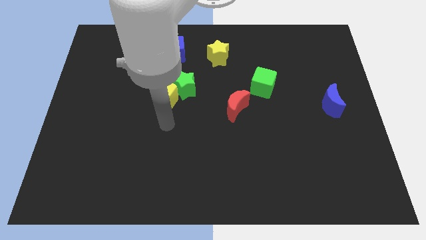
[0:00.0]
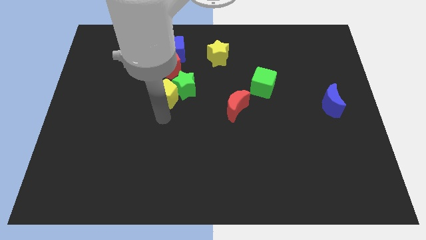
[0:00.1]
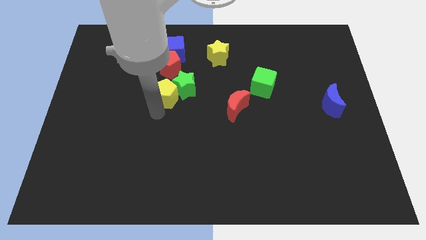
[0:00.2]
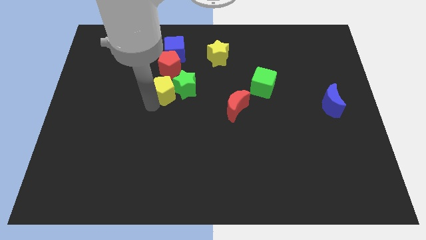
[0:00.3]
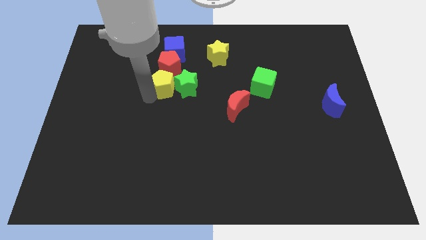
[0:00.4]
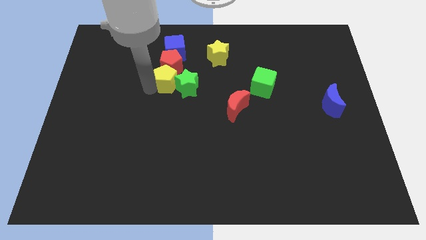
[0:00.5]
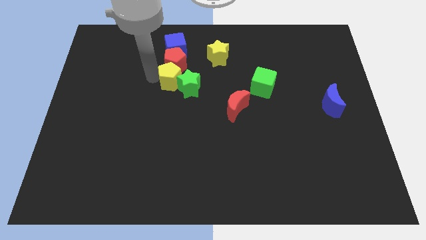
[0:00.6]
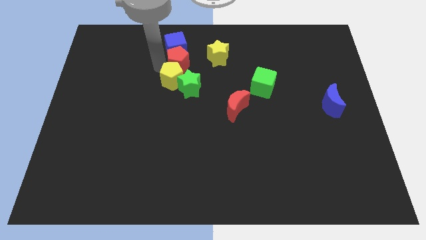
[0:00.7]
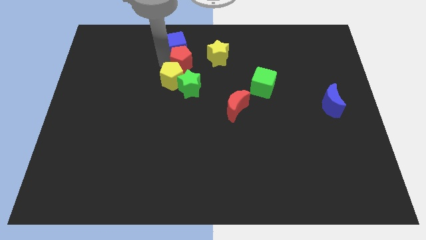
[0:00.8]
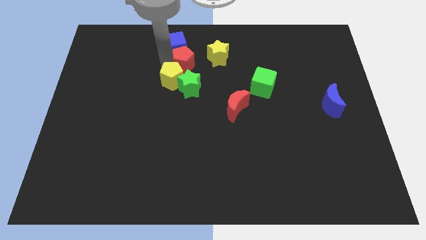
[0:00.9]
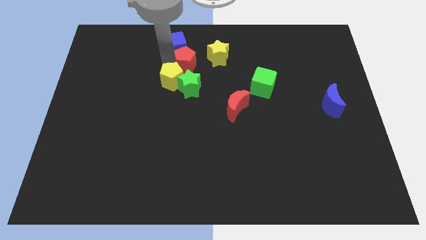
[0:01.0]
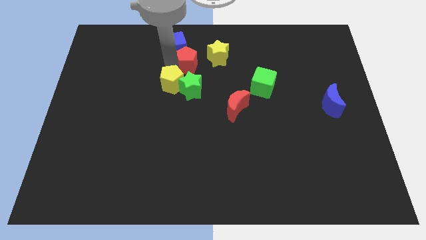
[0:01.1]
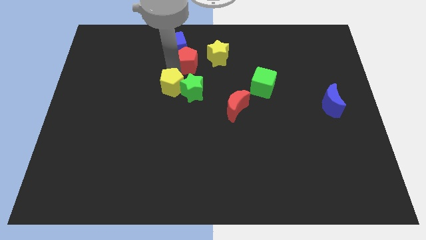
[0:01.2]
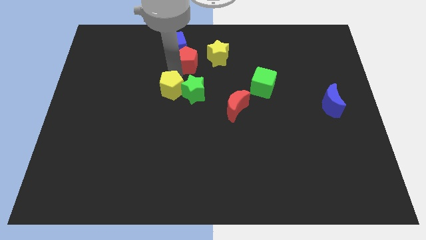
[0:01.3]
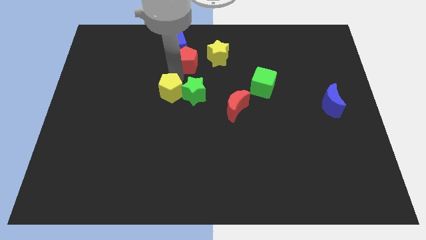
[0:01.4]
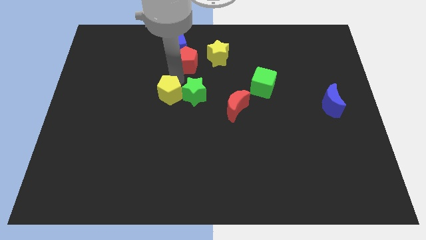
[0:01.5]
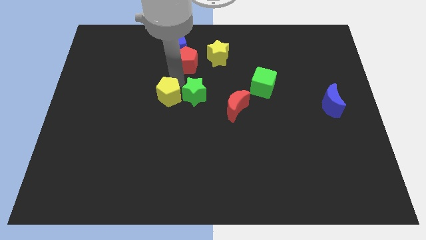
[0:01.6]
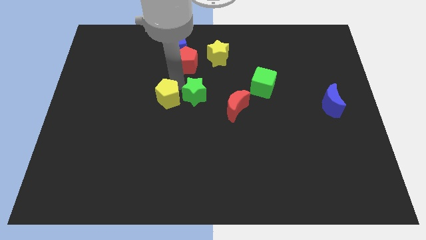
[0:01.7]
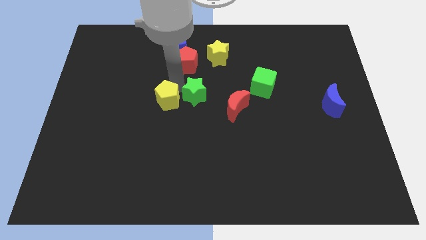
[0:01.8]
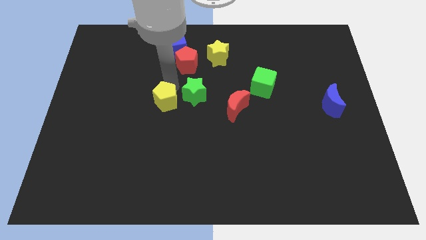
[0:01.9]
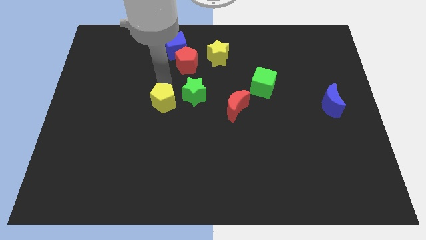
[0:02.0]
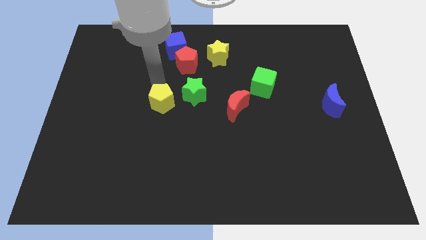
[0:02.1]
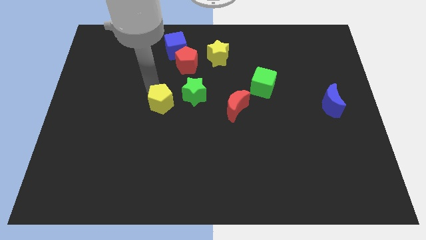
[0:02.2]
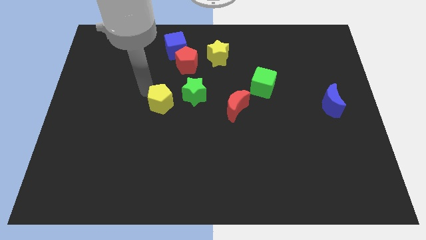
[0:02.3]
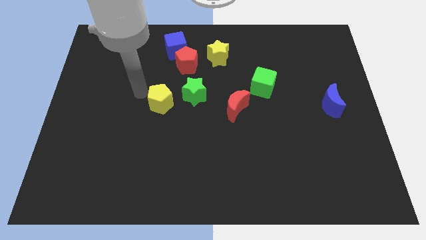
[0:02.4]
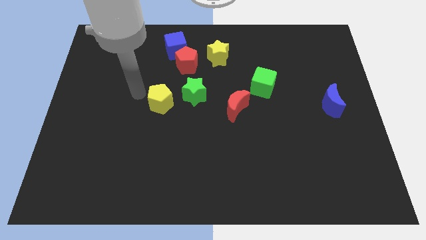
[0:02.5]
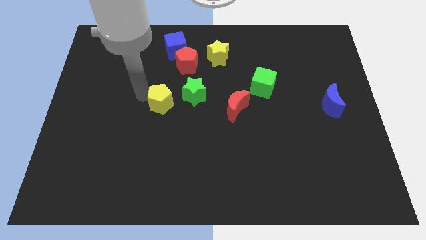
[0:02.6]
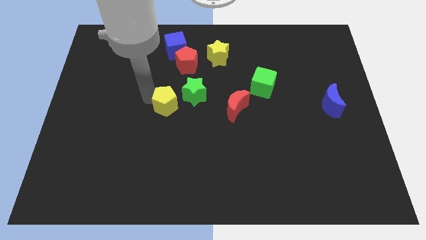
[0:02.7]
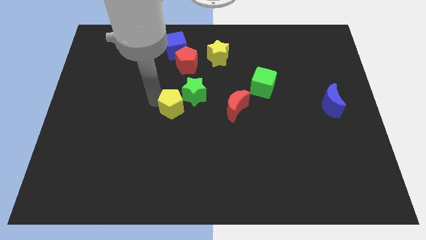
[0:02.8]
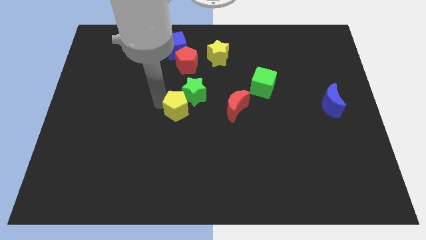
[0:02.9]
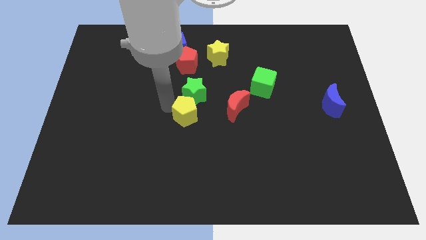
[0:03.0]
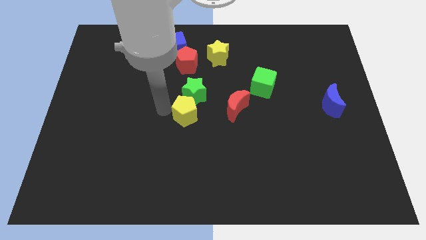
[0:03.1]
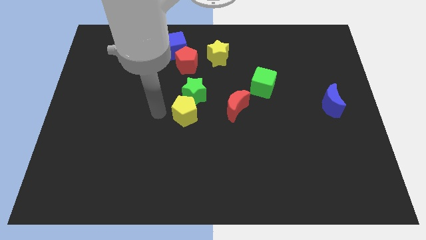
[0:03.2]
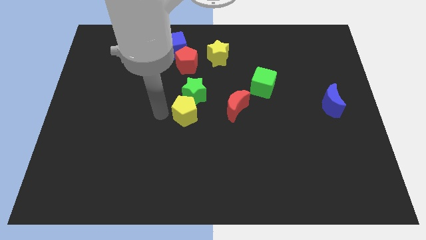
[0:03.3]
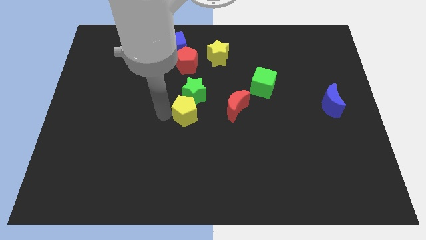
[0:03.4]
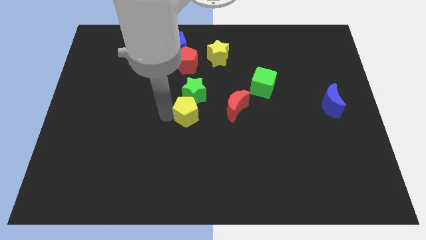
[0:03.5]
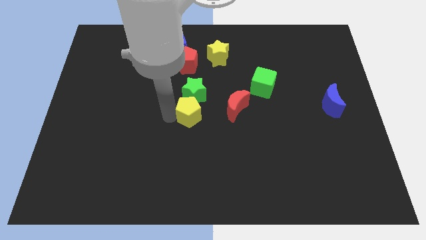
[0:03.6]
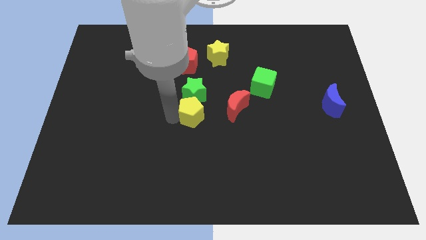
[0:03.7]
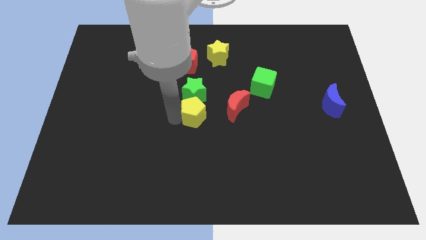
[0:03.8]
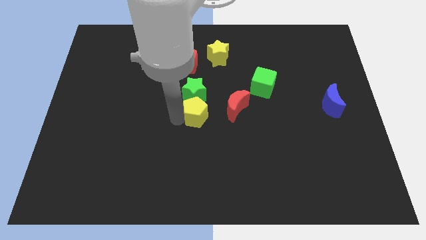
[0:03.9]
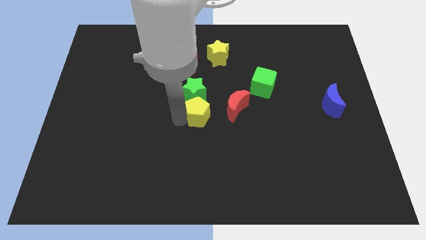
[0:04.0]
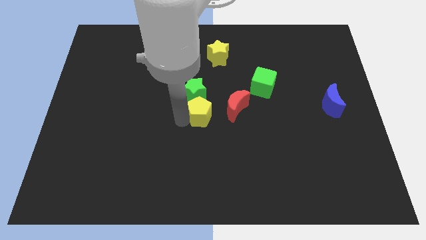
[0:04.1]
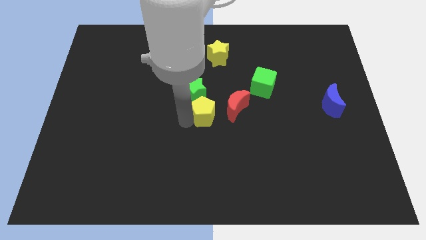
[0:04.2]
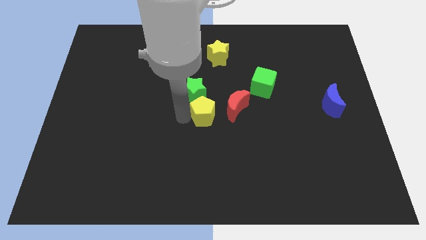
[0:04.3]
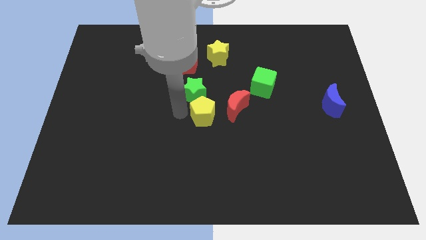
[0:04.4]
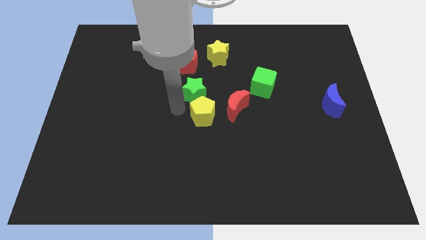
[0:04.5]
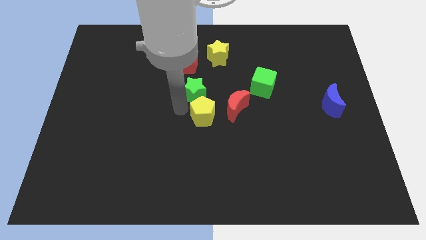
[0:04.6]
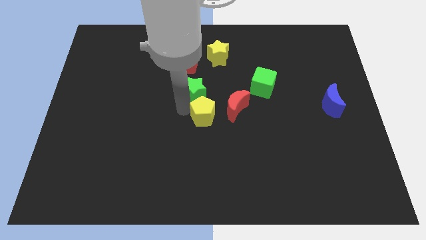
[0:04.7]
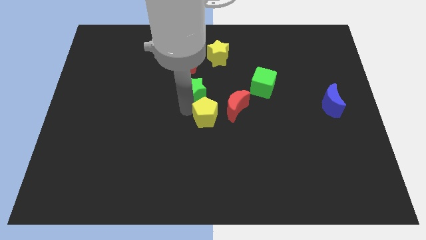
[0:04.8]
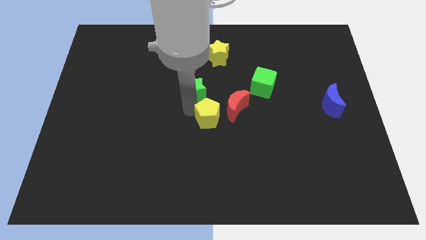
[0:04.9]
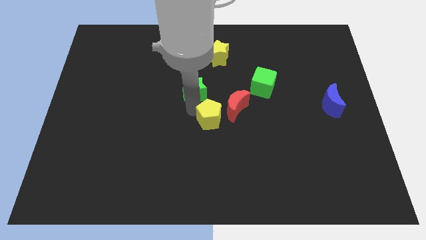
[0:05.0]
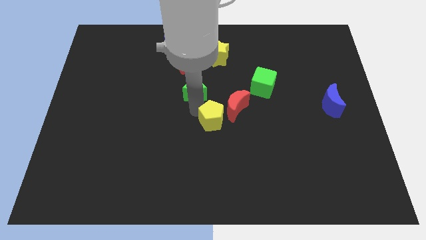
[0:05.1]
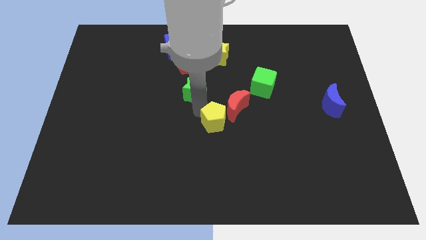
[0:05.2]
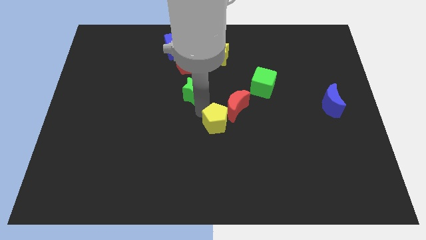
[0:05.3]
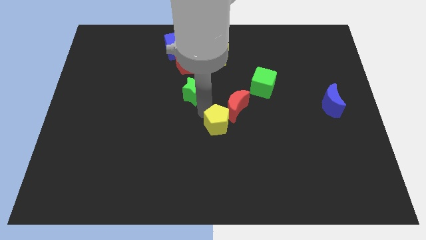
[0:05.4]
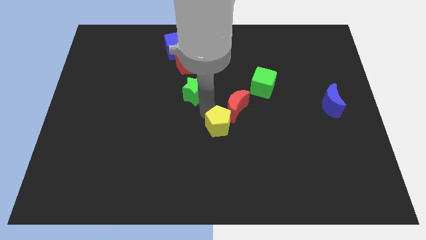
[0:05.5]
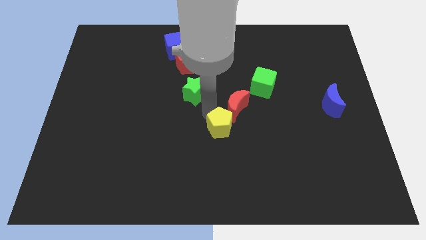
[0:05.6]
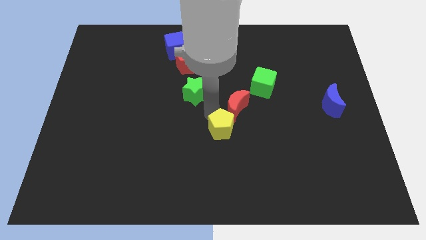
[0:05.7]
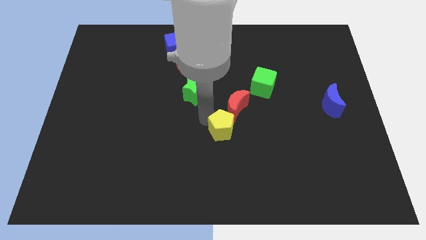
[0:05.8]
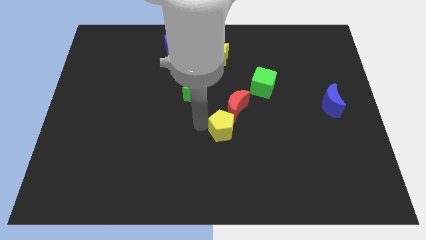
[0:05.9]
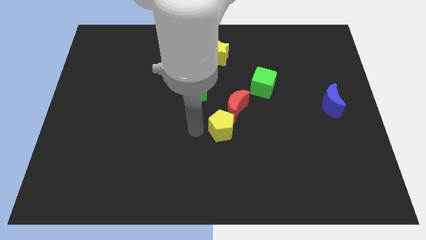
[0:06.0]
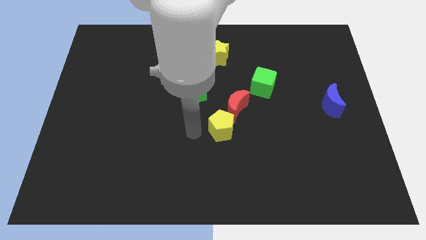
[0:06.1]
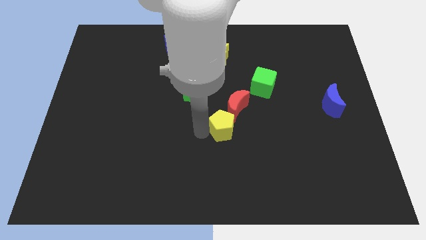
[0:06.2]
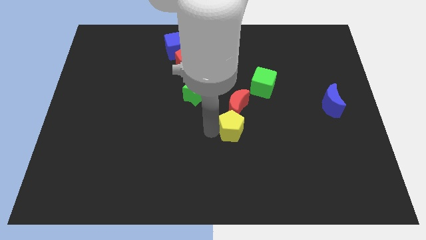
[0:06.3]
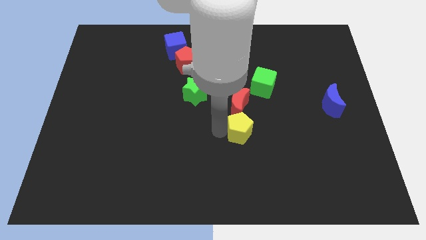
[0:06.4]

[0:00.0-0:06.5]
put the yellow pentagon to the bottom right of the red moon

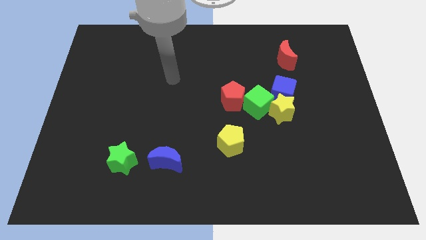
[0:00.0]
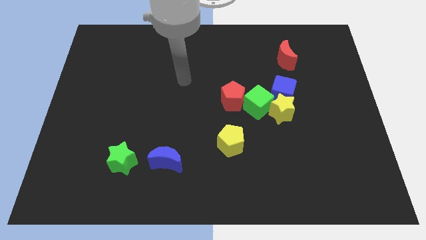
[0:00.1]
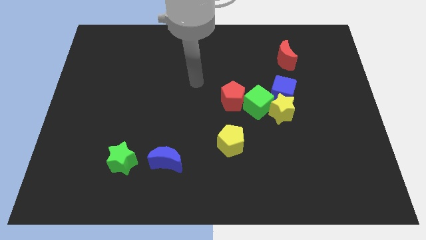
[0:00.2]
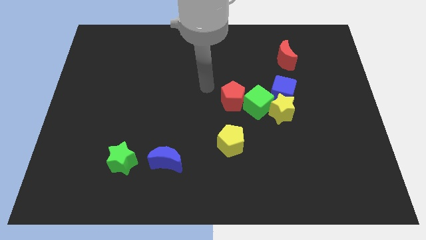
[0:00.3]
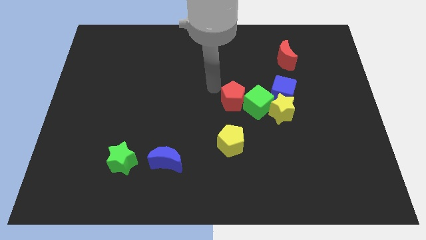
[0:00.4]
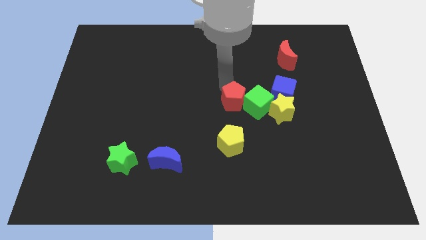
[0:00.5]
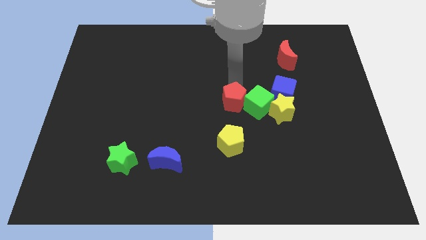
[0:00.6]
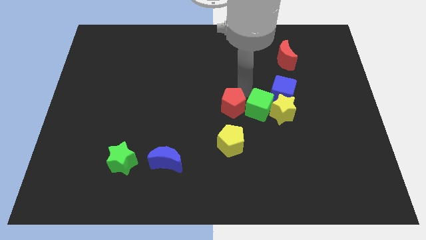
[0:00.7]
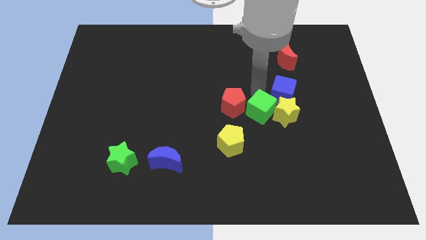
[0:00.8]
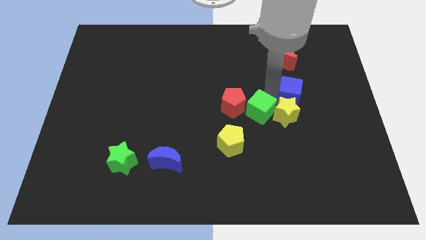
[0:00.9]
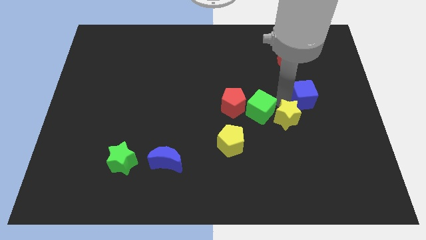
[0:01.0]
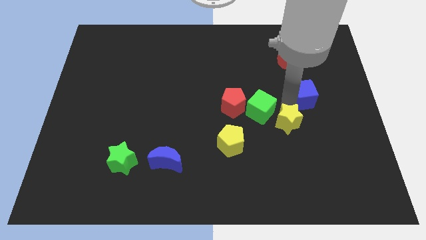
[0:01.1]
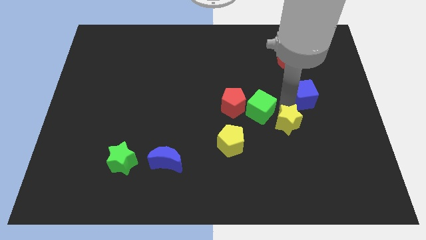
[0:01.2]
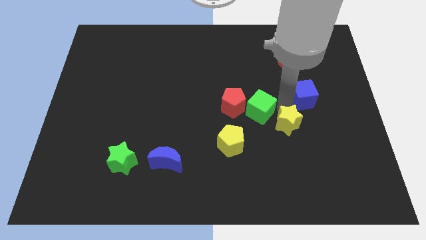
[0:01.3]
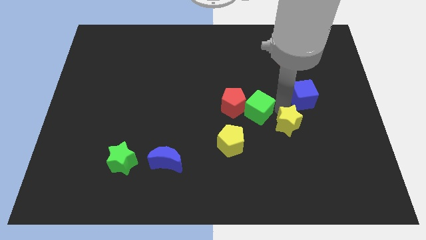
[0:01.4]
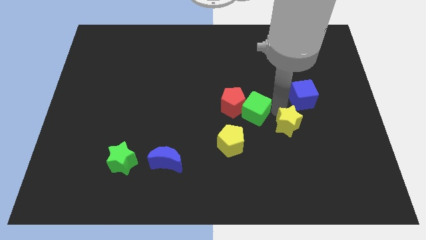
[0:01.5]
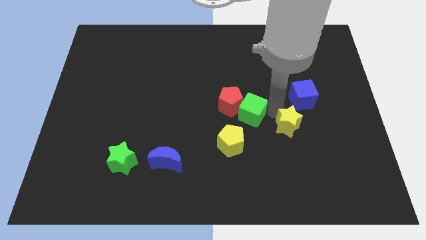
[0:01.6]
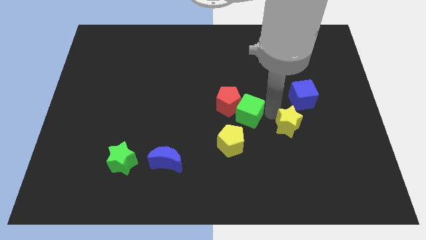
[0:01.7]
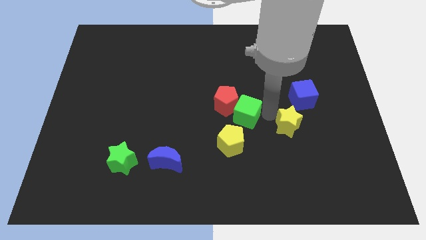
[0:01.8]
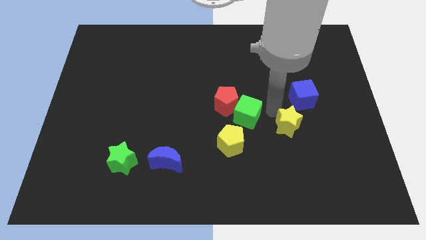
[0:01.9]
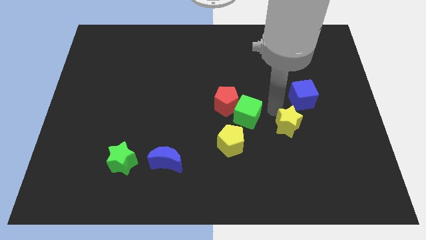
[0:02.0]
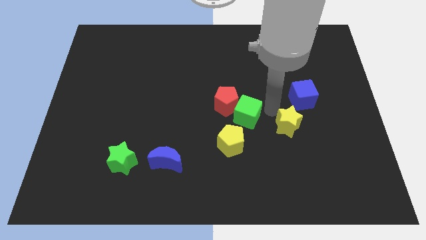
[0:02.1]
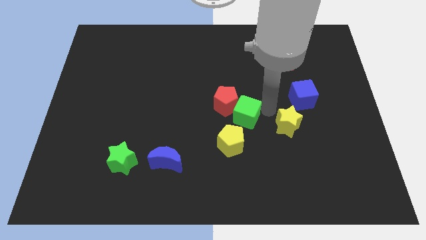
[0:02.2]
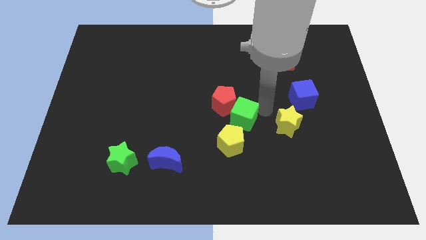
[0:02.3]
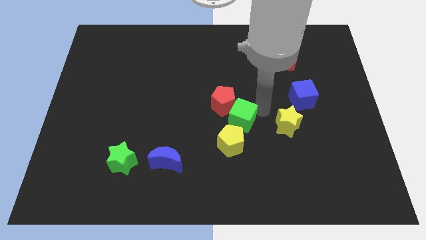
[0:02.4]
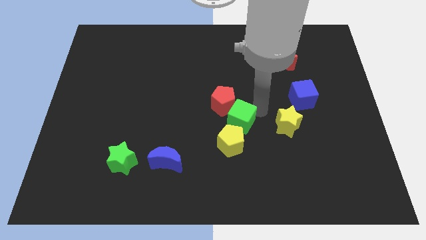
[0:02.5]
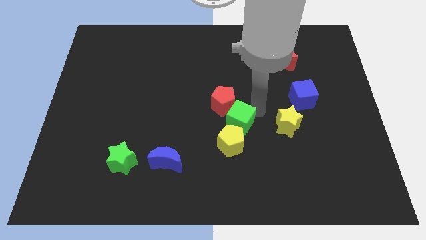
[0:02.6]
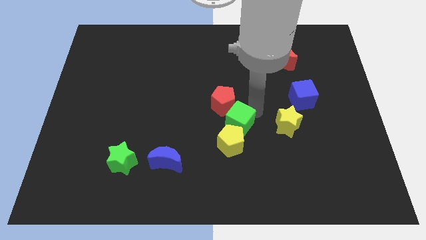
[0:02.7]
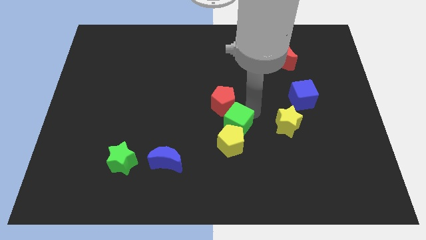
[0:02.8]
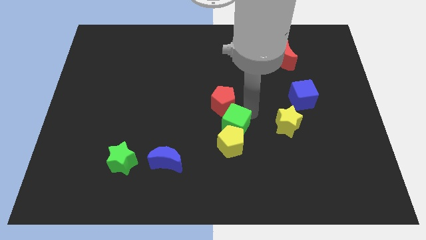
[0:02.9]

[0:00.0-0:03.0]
push the green cube diagonally up and to the left of the yellow pentagon
